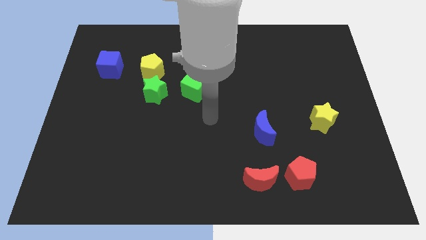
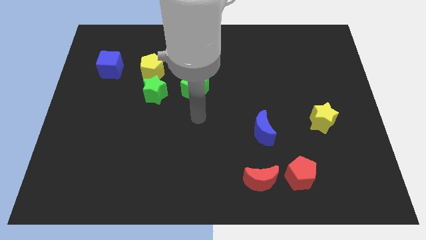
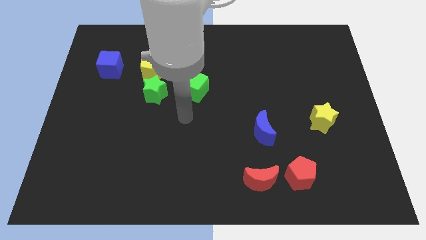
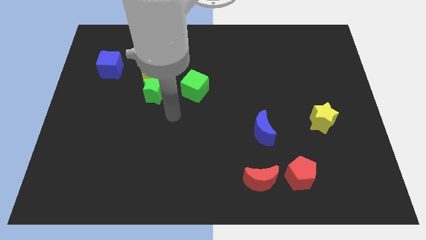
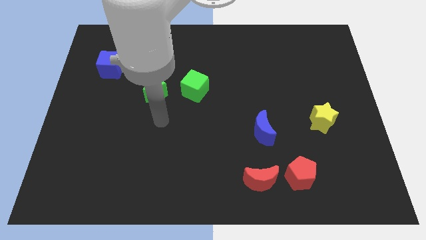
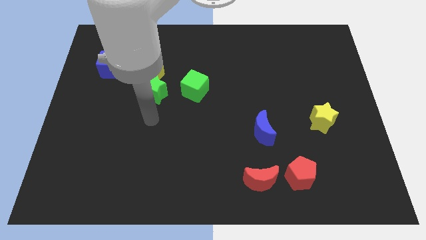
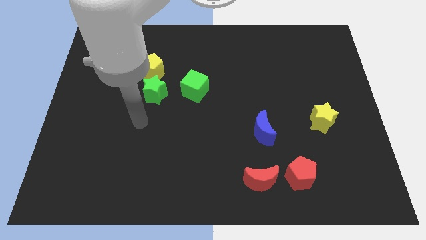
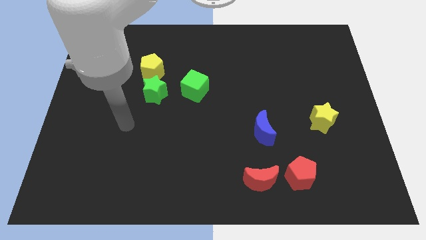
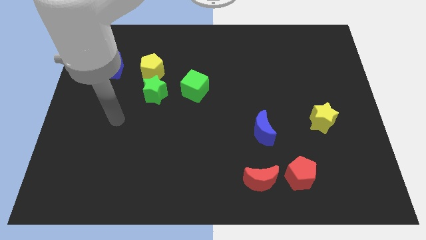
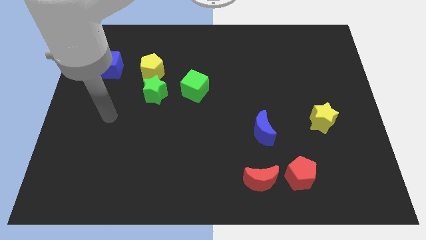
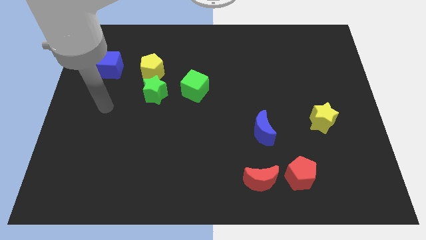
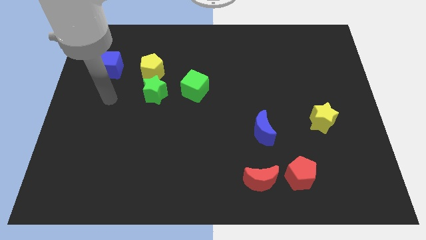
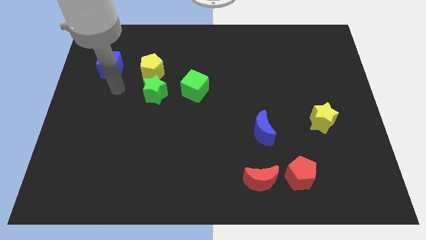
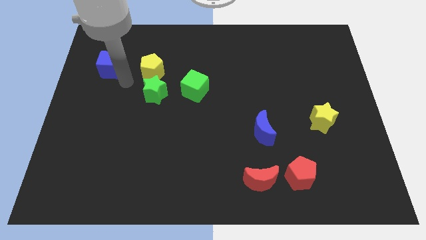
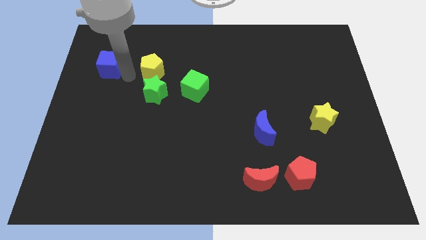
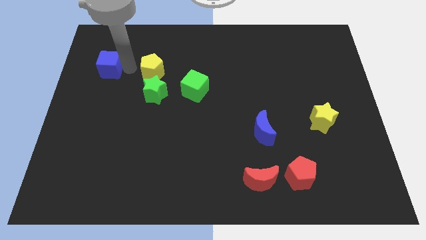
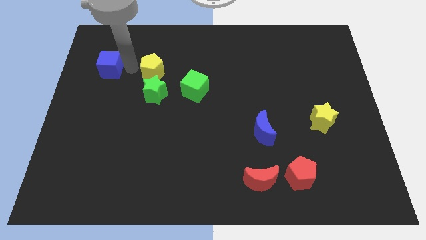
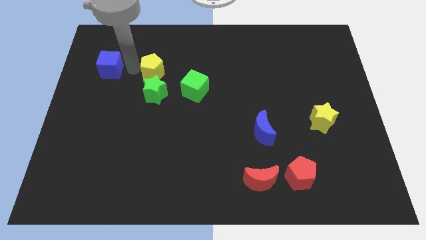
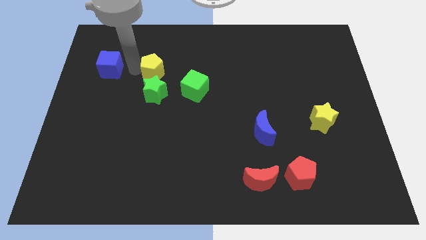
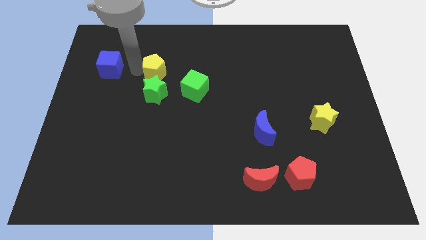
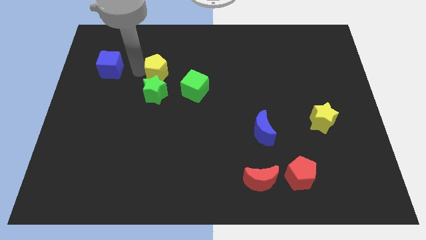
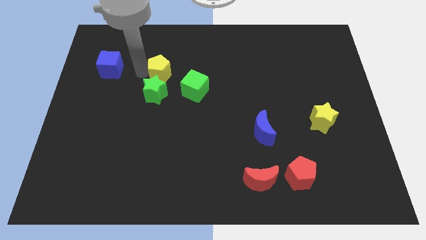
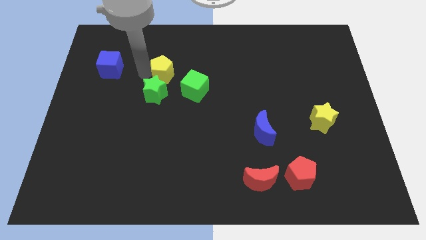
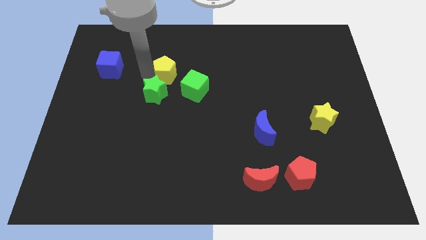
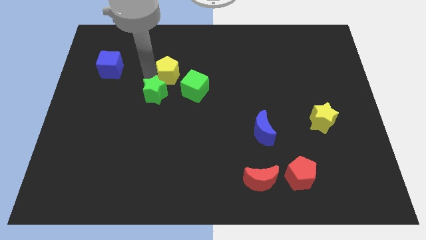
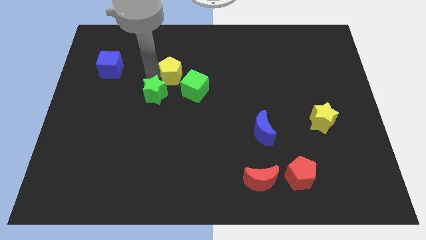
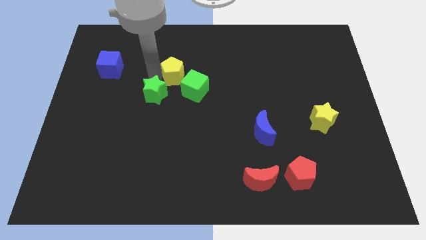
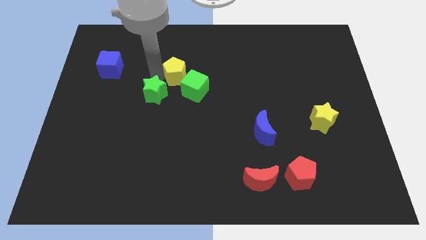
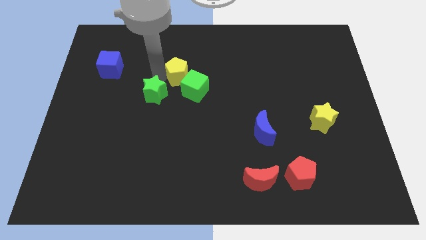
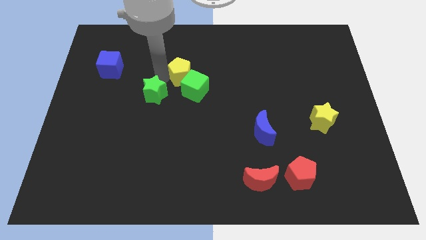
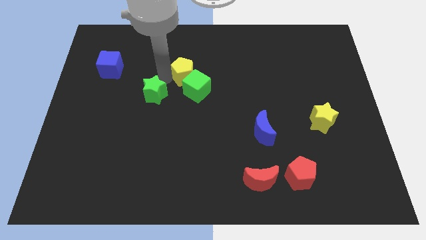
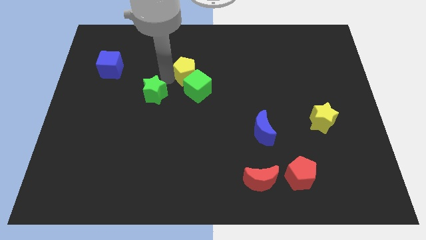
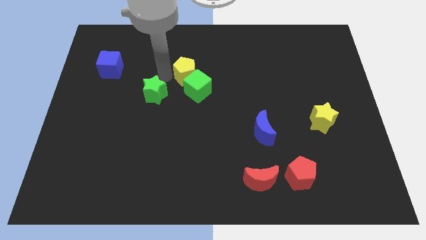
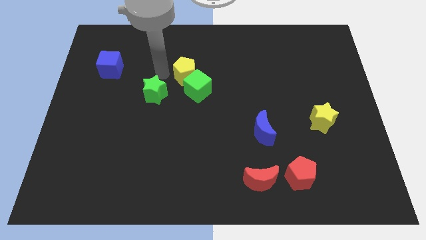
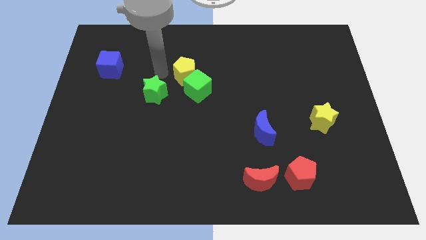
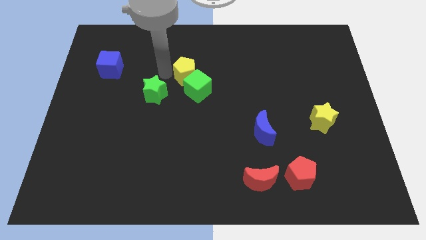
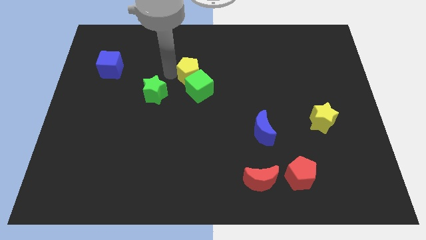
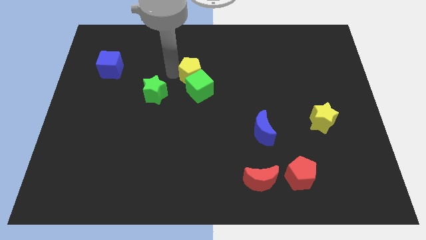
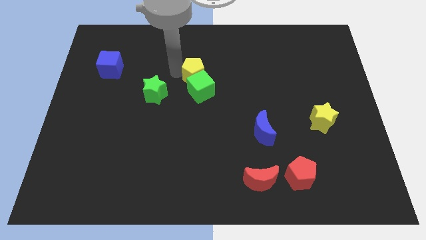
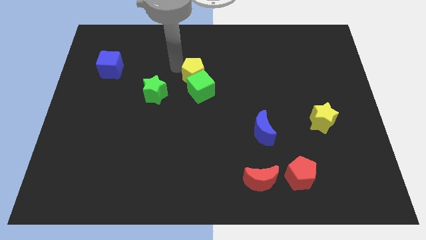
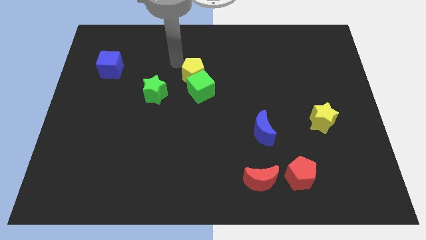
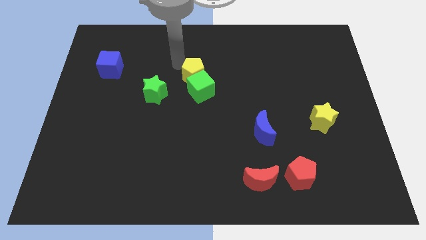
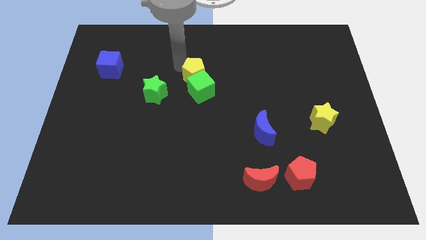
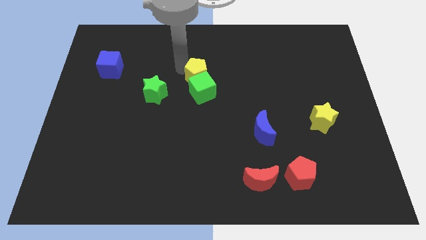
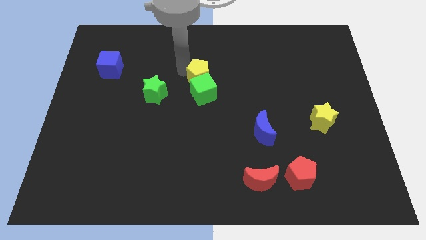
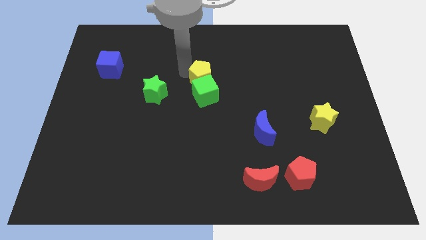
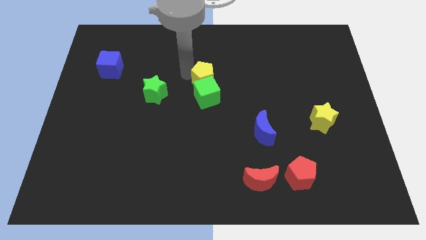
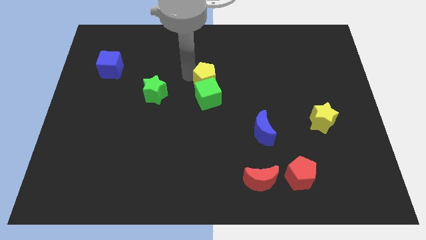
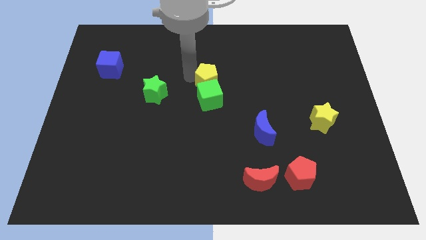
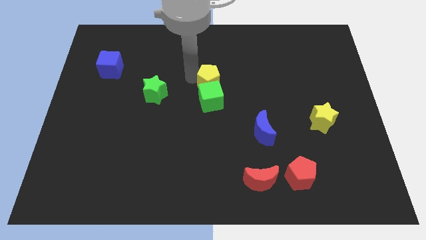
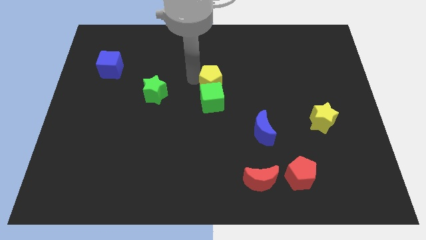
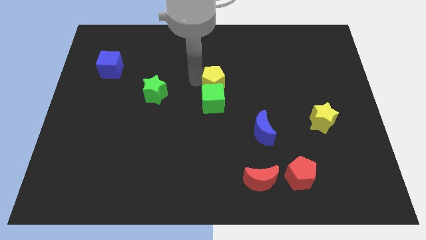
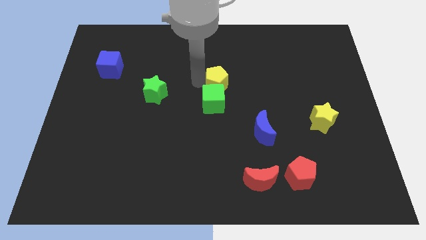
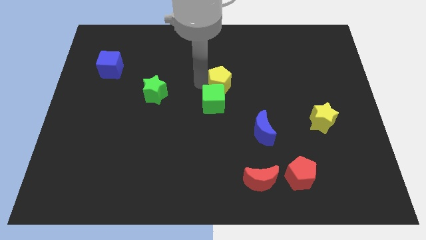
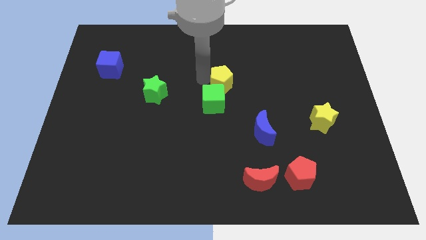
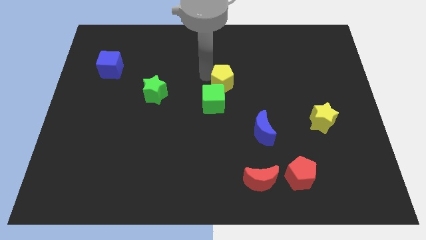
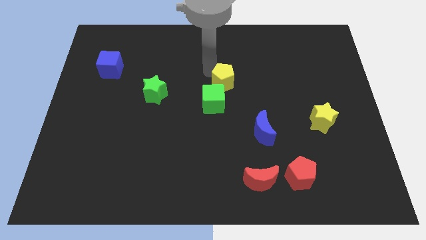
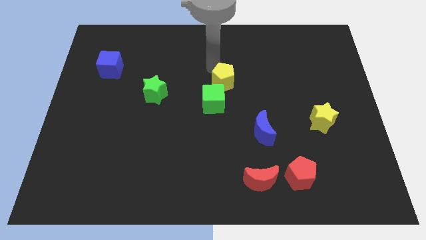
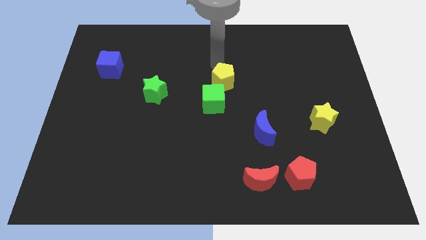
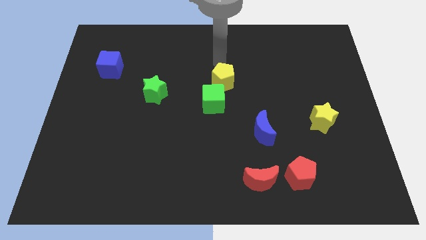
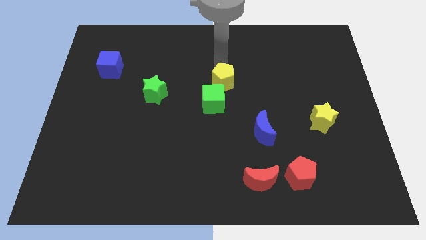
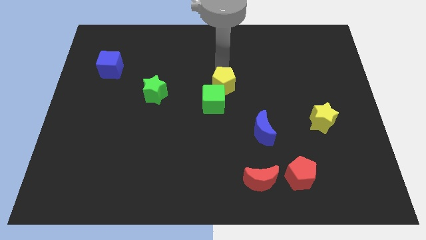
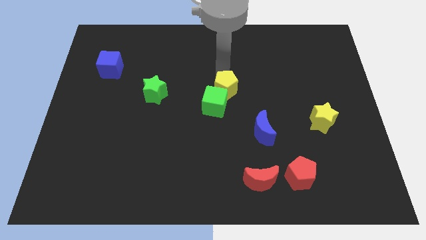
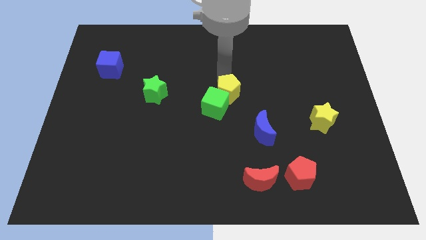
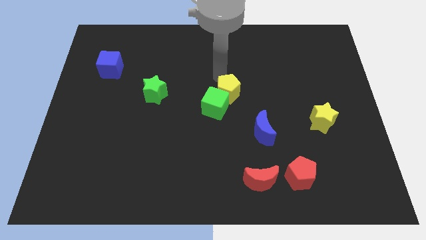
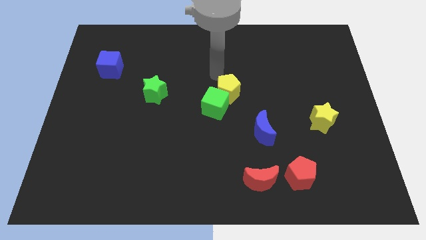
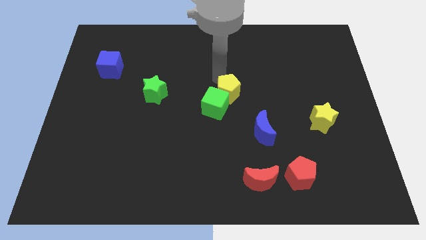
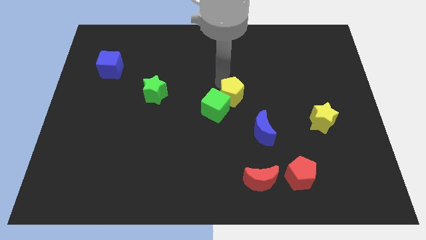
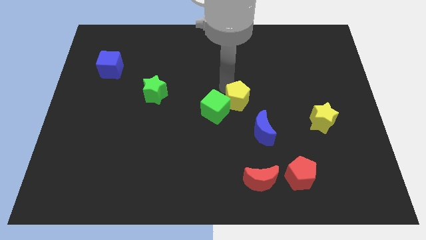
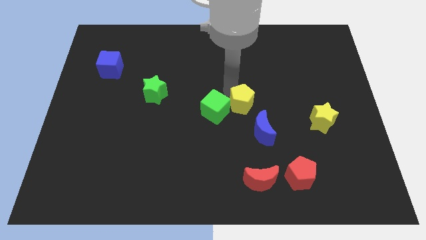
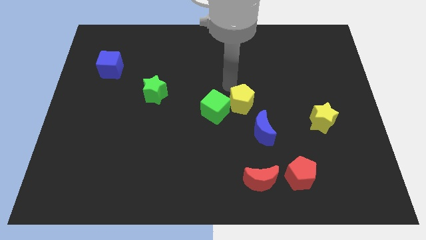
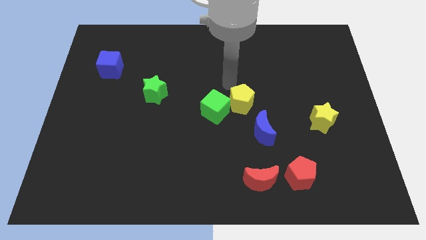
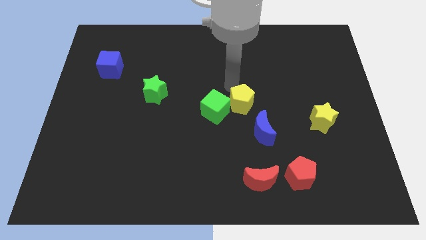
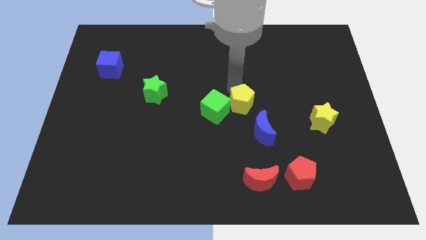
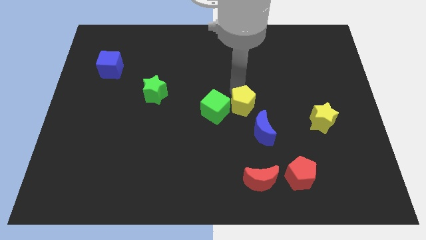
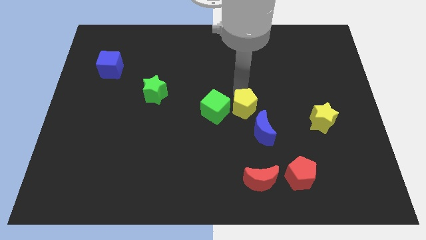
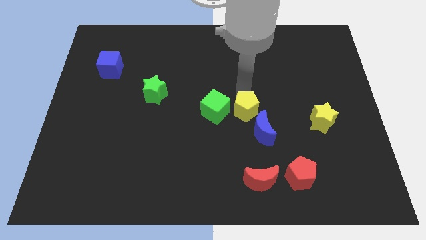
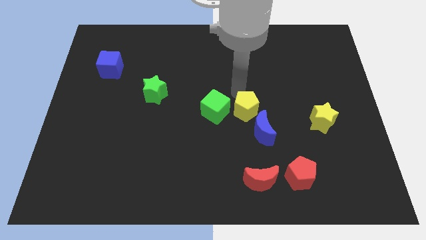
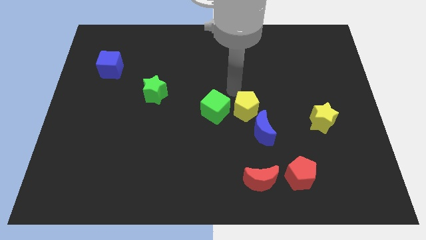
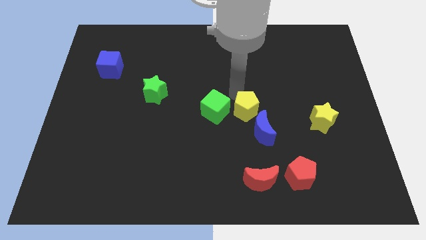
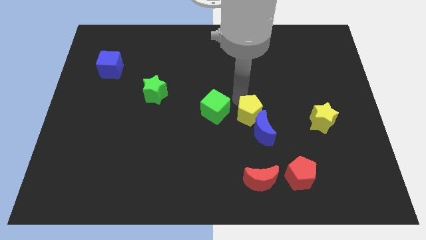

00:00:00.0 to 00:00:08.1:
move the yellow pentagon next to the blue moon
